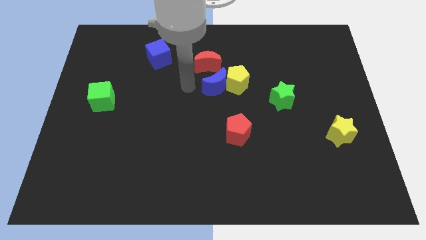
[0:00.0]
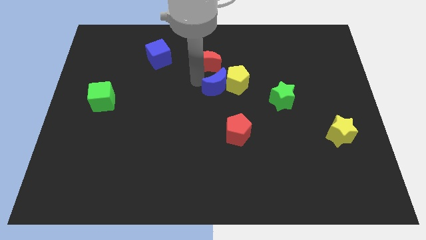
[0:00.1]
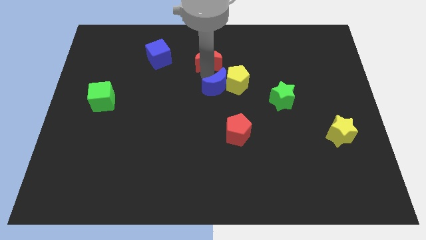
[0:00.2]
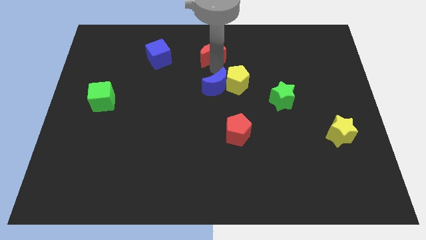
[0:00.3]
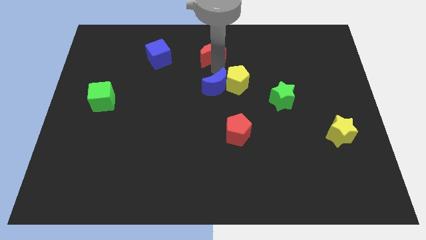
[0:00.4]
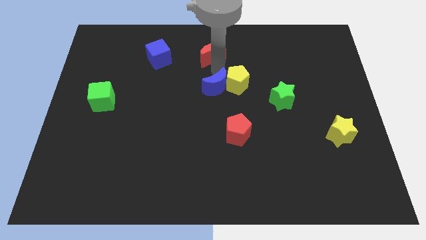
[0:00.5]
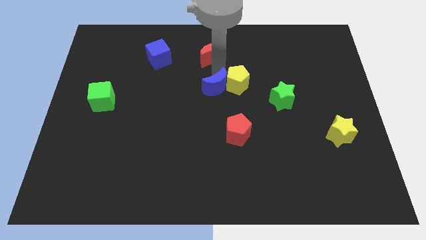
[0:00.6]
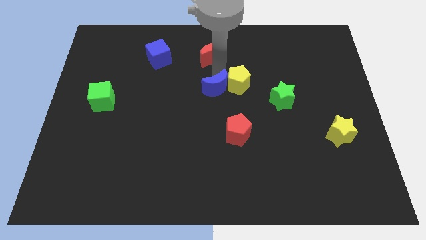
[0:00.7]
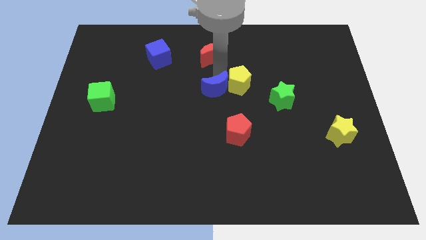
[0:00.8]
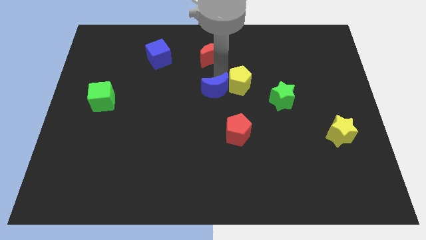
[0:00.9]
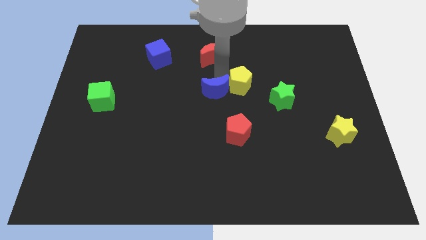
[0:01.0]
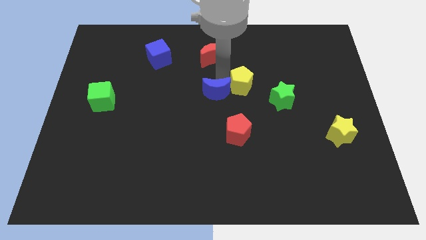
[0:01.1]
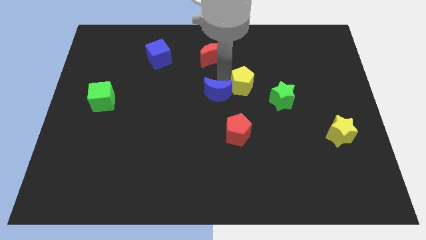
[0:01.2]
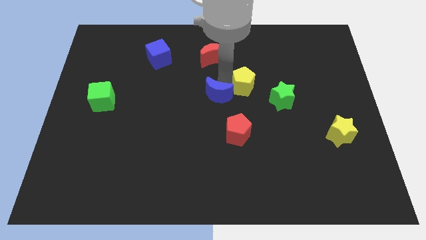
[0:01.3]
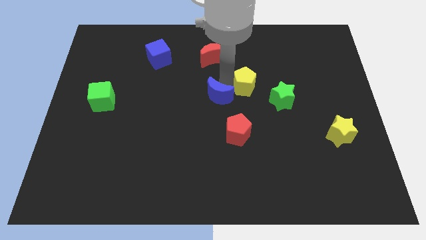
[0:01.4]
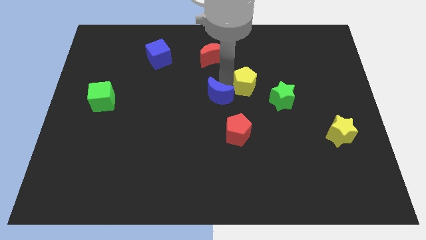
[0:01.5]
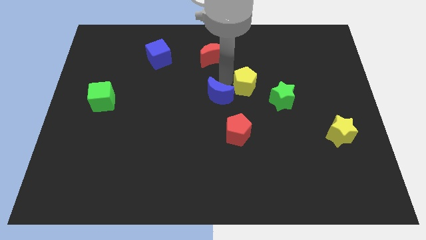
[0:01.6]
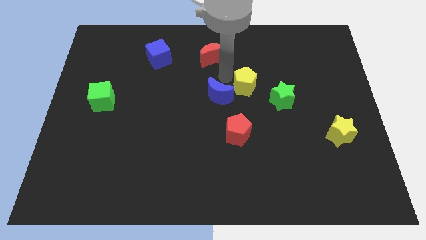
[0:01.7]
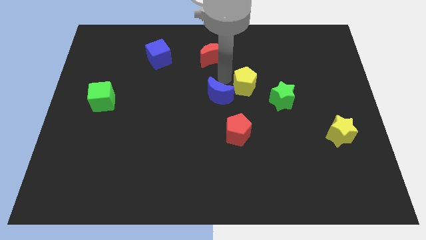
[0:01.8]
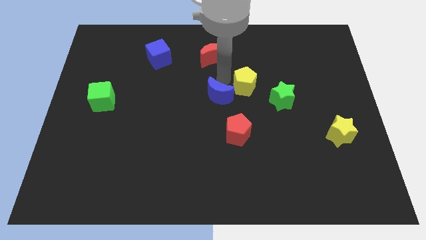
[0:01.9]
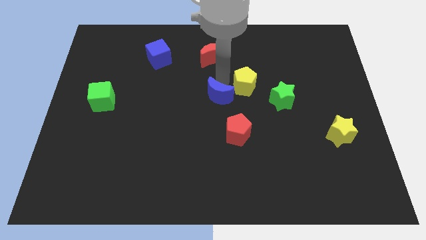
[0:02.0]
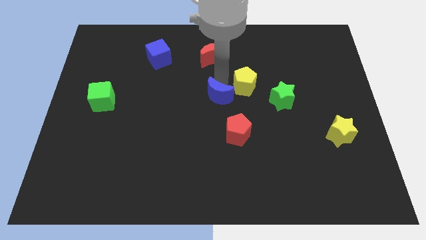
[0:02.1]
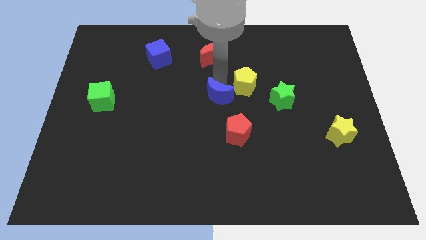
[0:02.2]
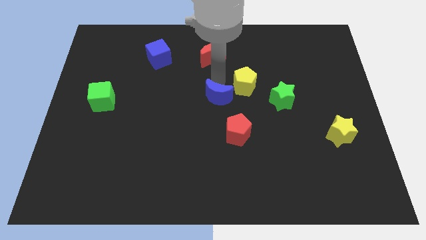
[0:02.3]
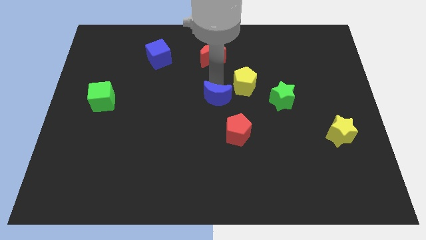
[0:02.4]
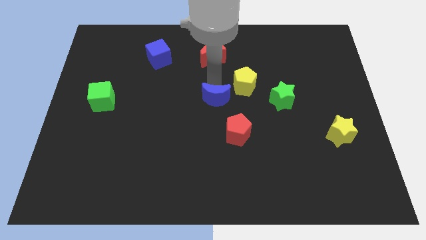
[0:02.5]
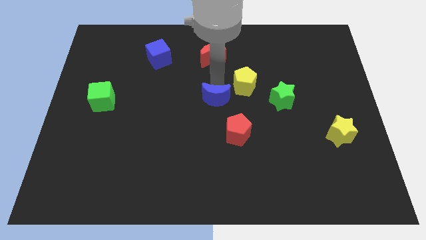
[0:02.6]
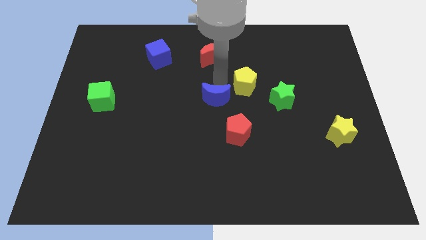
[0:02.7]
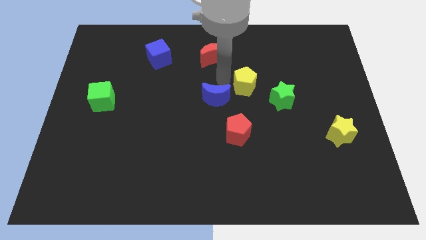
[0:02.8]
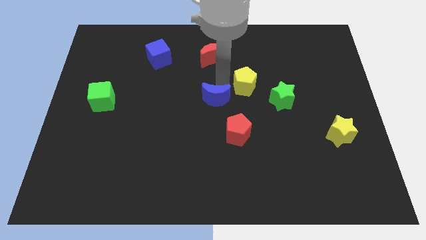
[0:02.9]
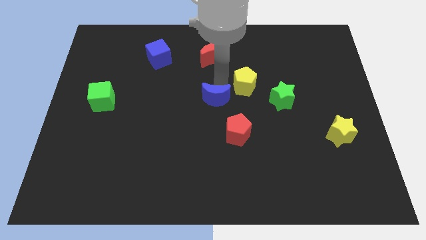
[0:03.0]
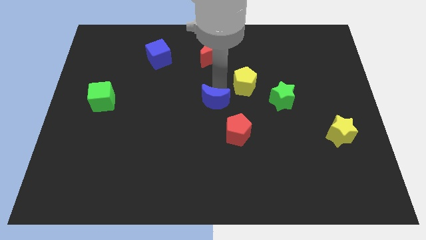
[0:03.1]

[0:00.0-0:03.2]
pull the blue moon apart from the yellow pentagon and red moon

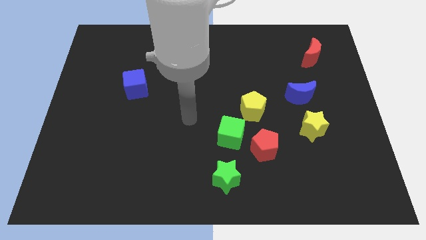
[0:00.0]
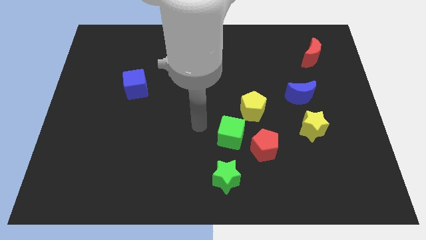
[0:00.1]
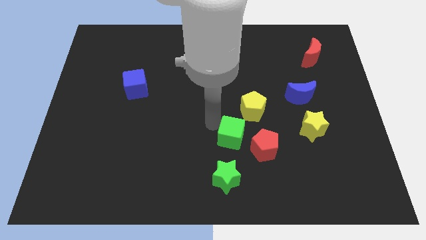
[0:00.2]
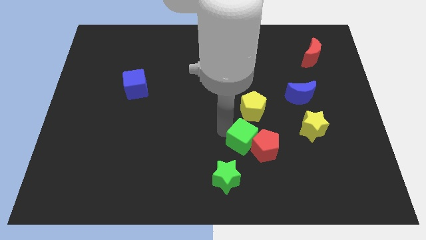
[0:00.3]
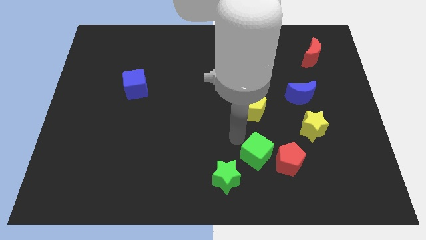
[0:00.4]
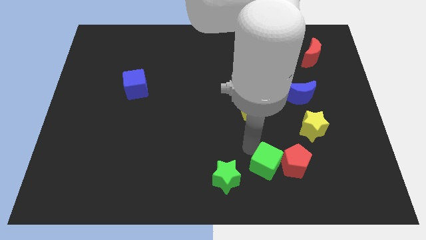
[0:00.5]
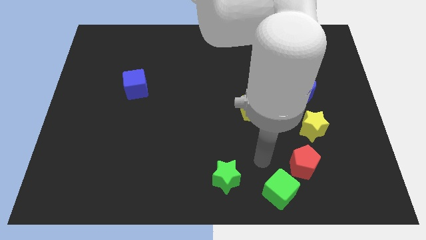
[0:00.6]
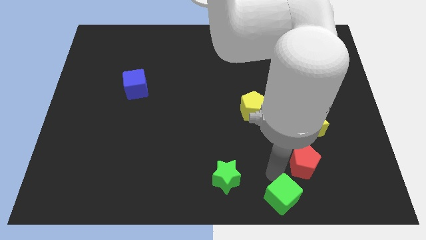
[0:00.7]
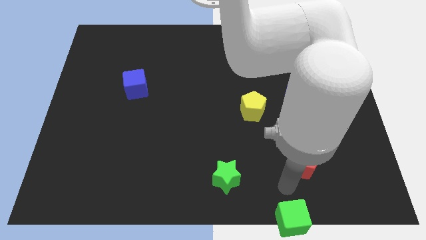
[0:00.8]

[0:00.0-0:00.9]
pull the red pentagon apart from the green cube

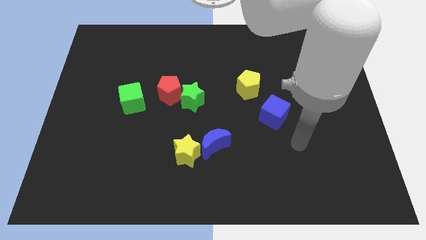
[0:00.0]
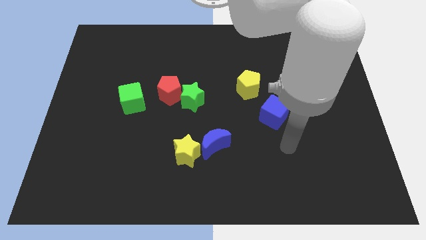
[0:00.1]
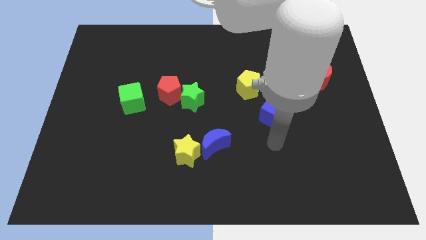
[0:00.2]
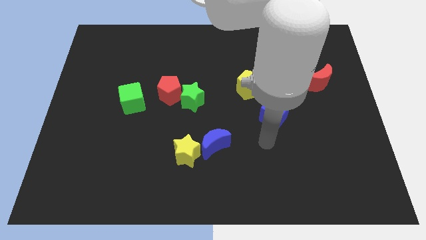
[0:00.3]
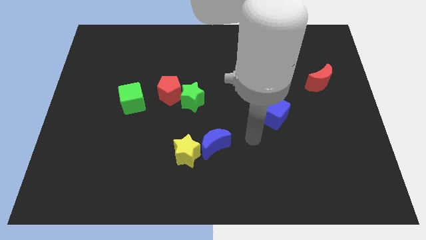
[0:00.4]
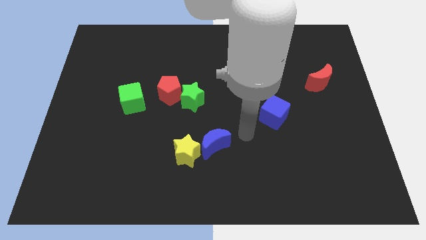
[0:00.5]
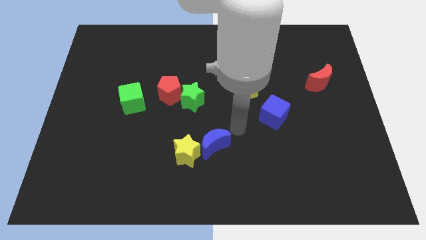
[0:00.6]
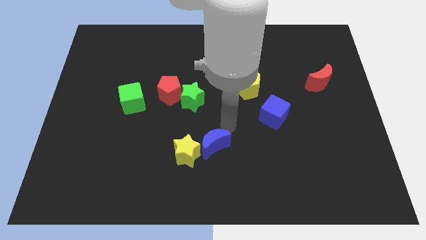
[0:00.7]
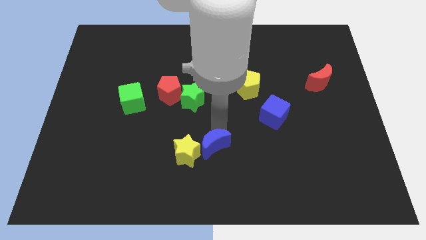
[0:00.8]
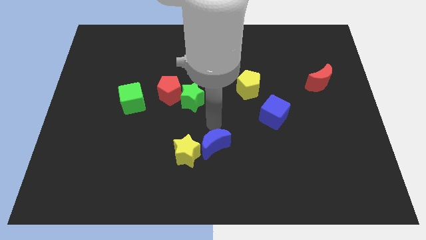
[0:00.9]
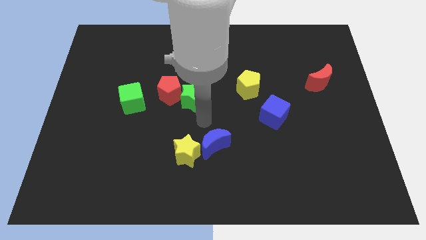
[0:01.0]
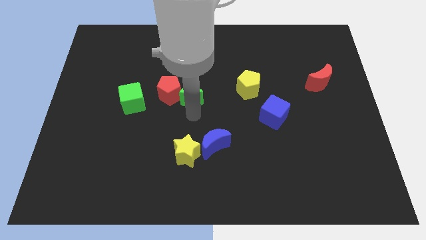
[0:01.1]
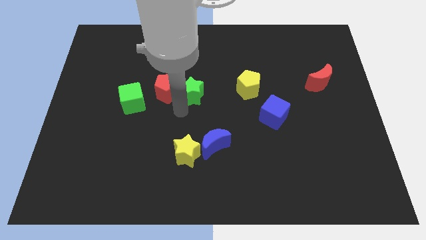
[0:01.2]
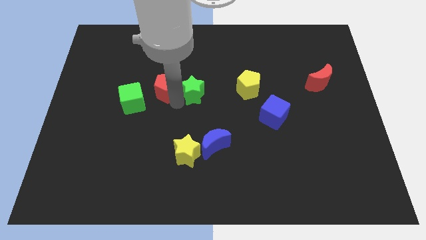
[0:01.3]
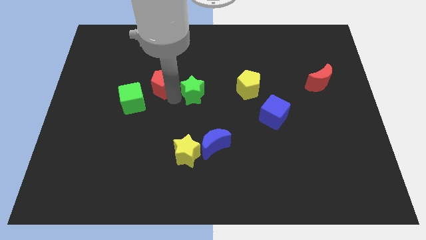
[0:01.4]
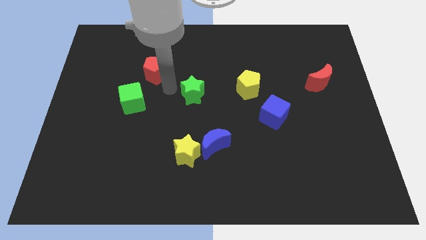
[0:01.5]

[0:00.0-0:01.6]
pull the green star apart from the red pentagon

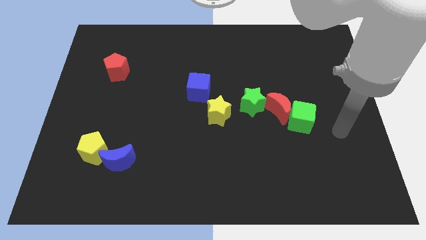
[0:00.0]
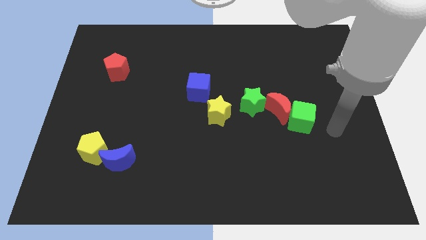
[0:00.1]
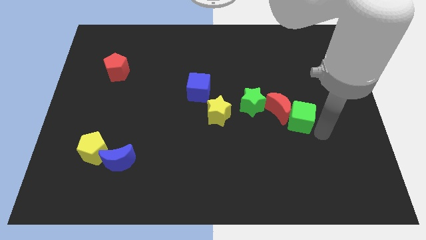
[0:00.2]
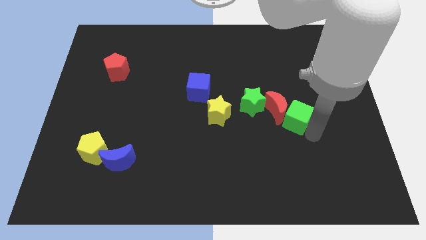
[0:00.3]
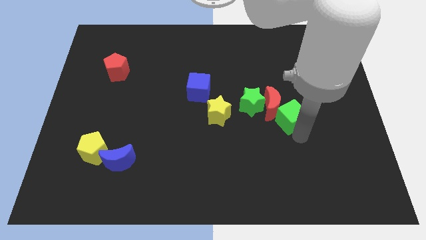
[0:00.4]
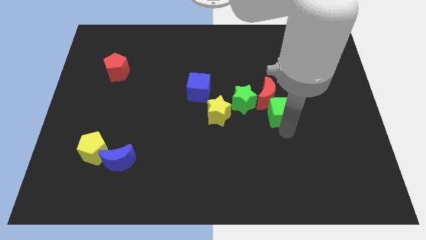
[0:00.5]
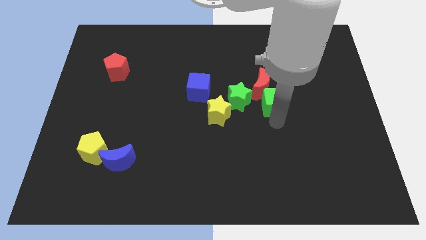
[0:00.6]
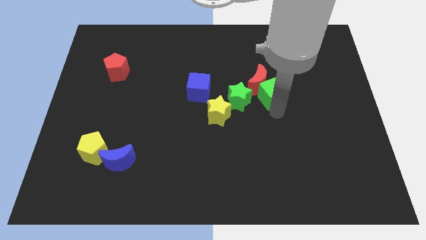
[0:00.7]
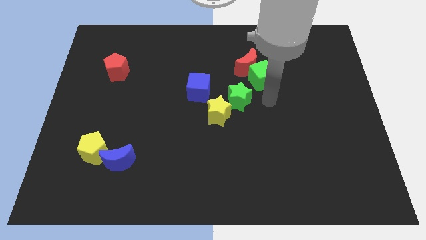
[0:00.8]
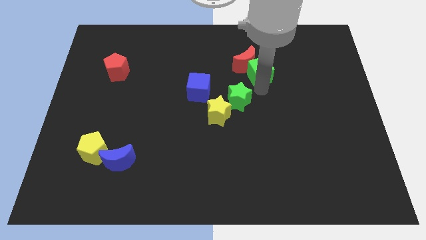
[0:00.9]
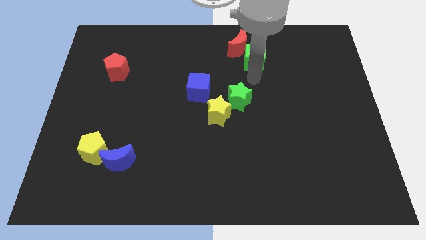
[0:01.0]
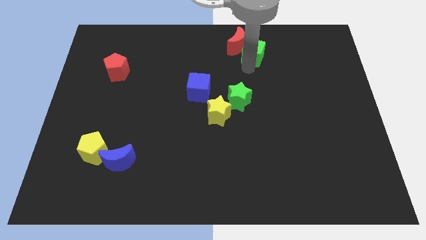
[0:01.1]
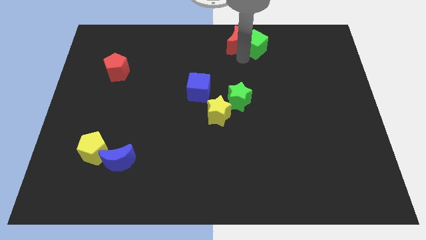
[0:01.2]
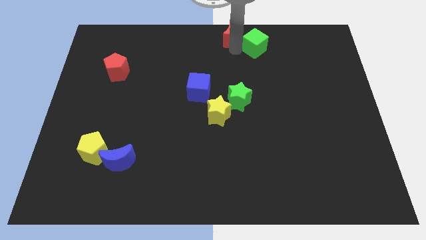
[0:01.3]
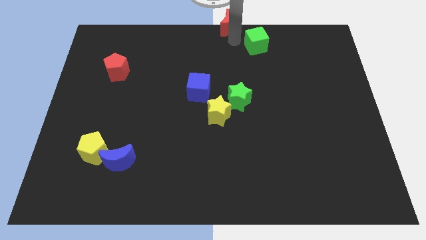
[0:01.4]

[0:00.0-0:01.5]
pull the green cube apart from the red moon

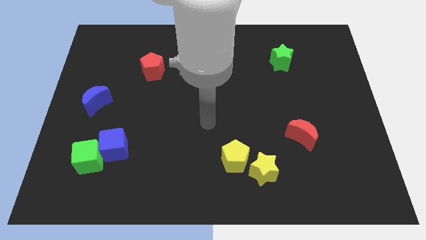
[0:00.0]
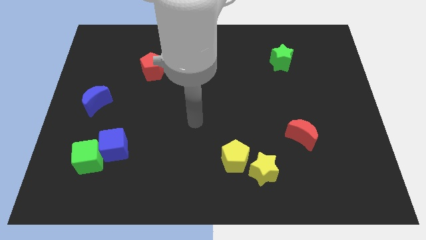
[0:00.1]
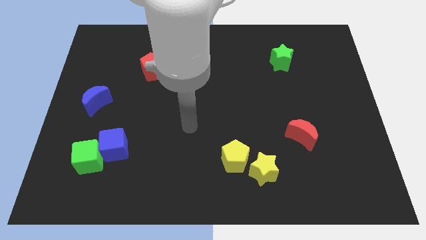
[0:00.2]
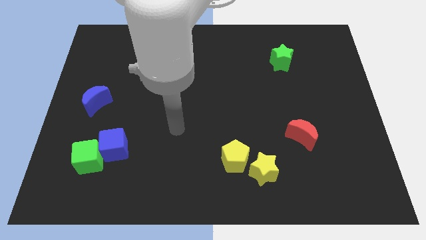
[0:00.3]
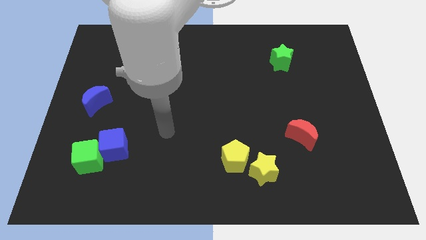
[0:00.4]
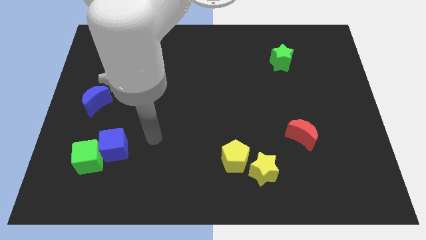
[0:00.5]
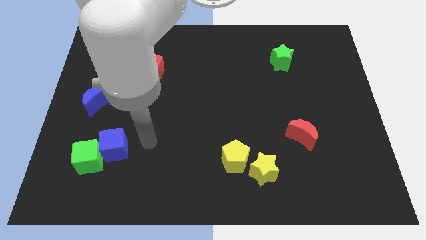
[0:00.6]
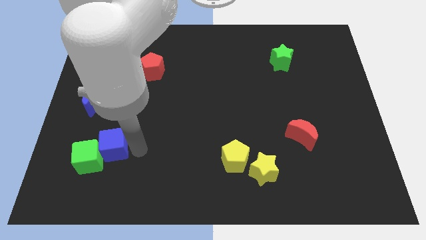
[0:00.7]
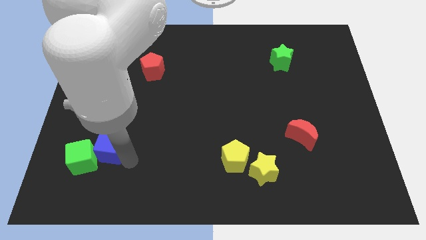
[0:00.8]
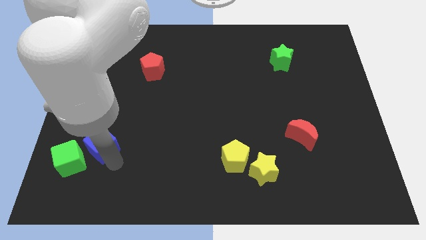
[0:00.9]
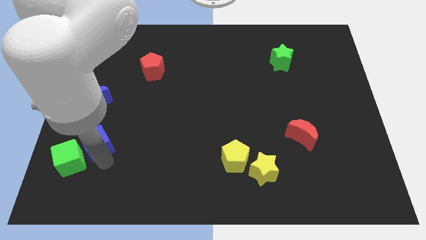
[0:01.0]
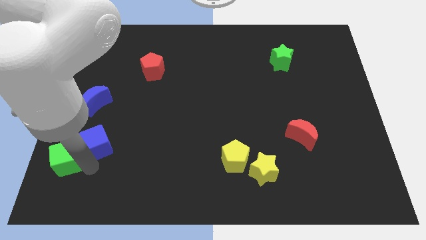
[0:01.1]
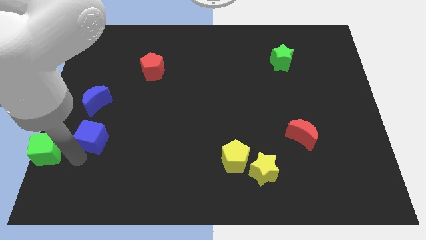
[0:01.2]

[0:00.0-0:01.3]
pull the blue cube apart from the green cube

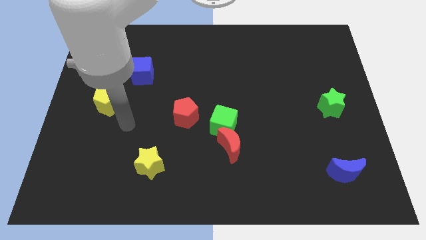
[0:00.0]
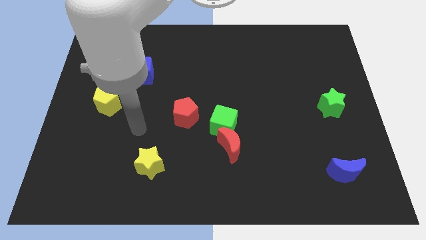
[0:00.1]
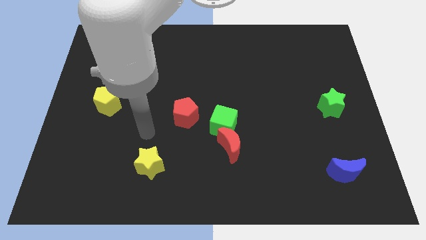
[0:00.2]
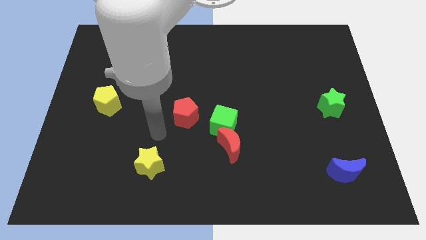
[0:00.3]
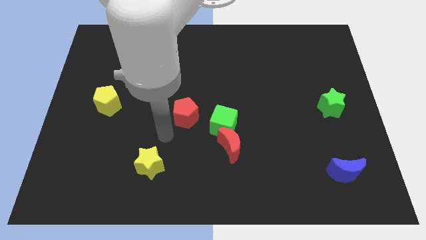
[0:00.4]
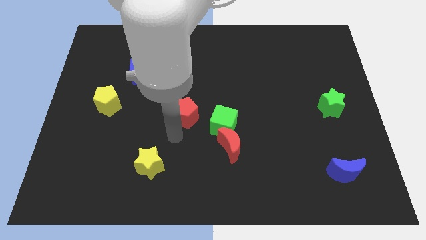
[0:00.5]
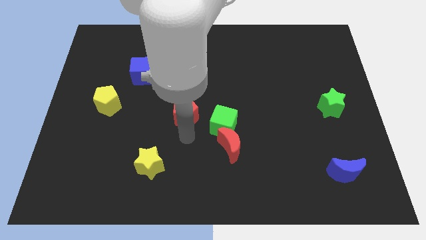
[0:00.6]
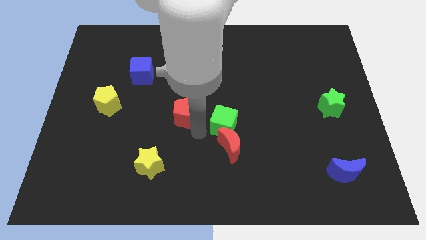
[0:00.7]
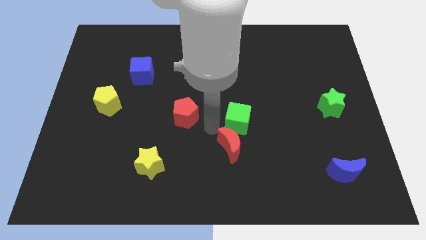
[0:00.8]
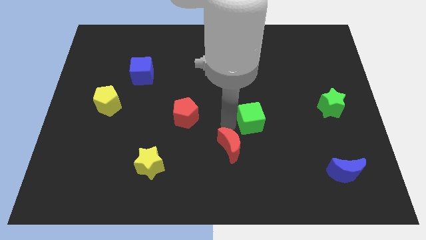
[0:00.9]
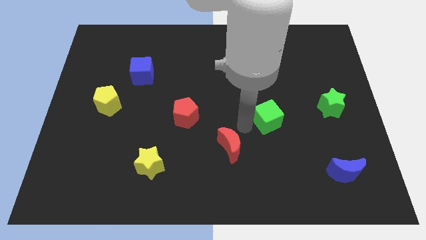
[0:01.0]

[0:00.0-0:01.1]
separate the red moon from the green cube
